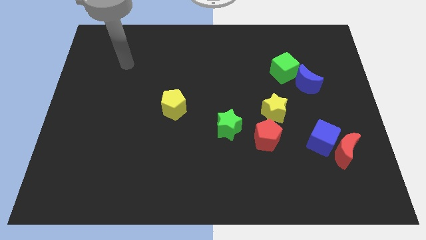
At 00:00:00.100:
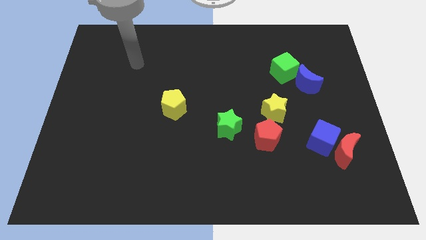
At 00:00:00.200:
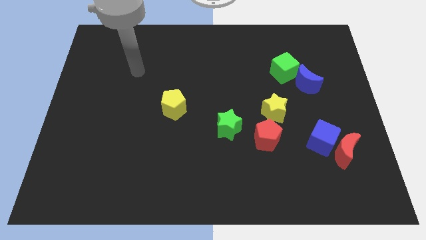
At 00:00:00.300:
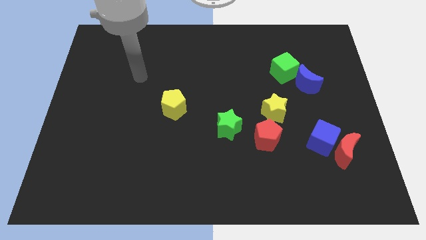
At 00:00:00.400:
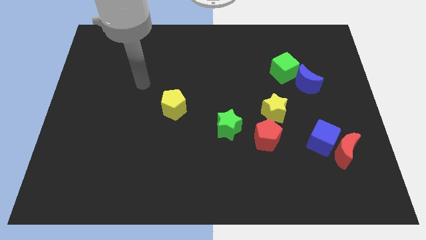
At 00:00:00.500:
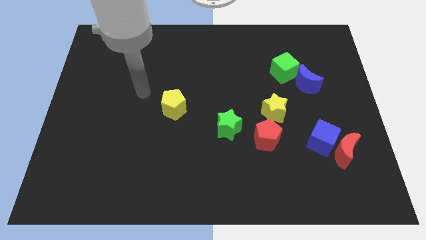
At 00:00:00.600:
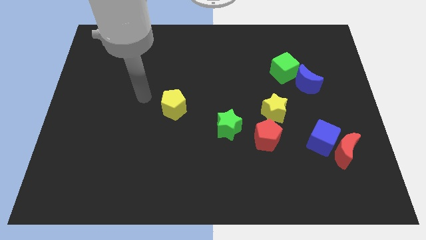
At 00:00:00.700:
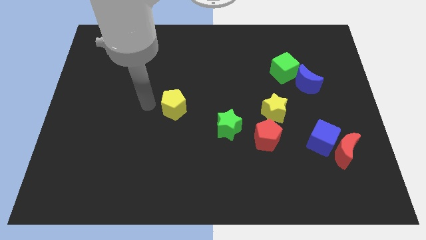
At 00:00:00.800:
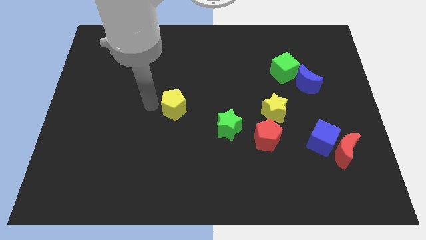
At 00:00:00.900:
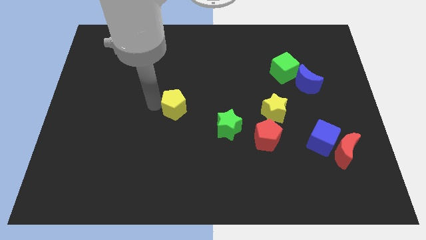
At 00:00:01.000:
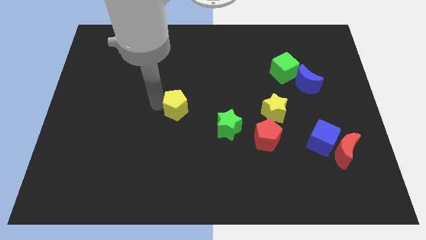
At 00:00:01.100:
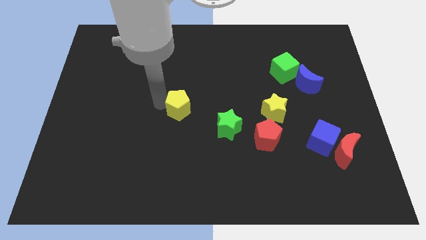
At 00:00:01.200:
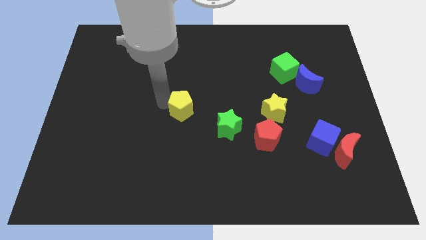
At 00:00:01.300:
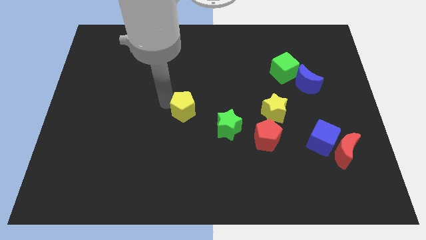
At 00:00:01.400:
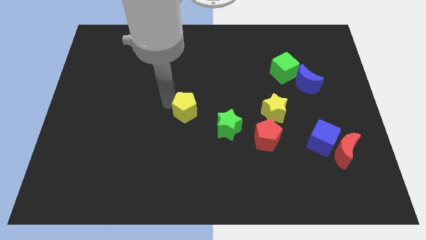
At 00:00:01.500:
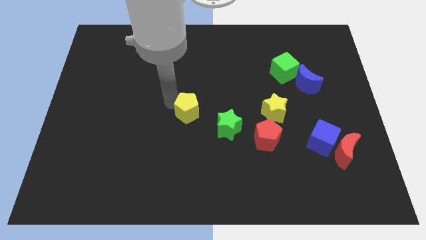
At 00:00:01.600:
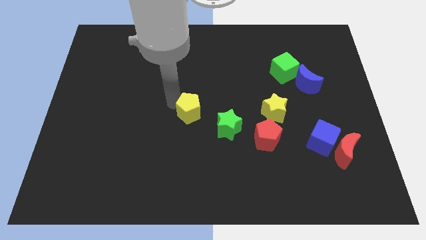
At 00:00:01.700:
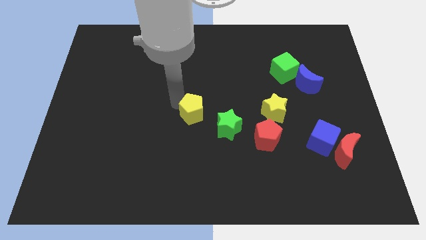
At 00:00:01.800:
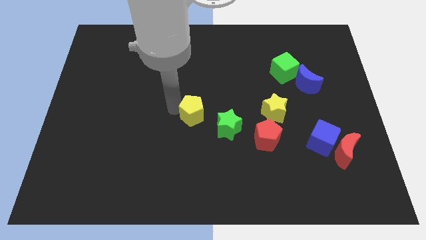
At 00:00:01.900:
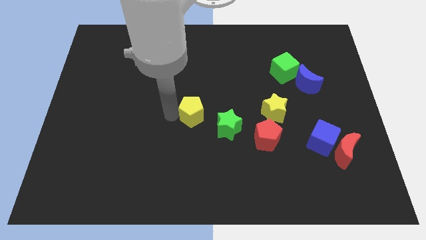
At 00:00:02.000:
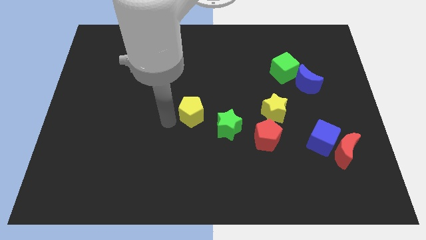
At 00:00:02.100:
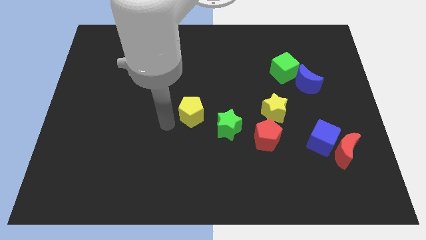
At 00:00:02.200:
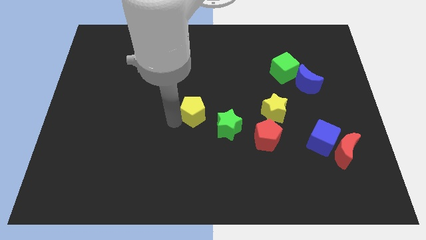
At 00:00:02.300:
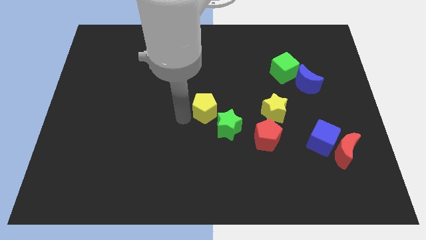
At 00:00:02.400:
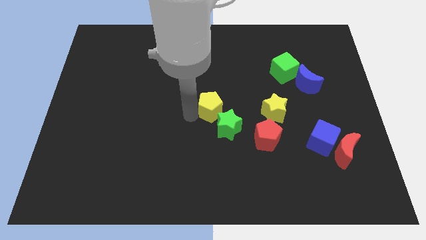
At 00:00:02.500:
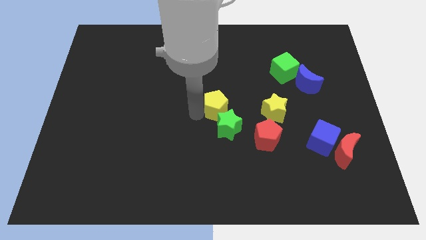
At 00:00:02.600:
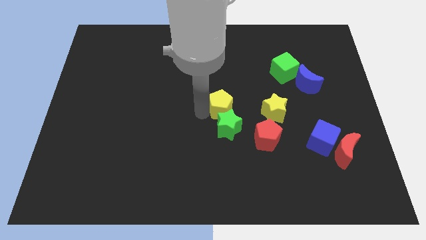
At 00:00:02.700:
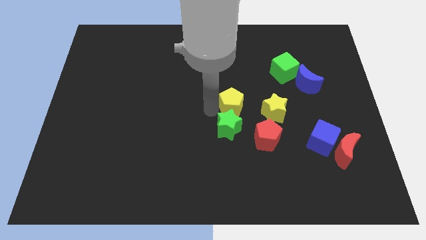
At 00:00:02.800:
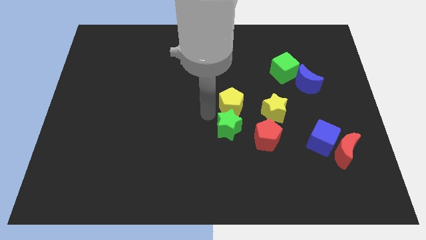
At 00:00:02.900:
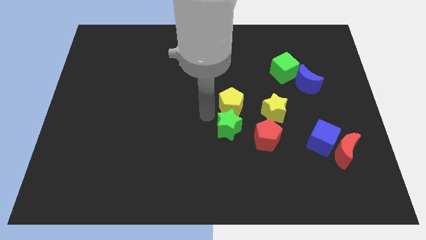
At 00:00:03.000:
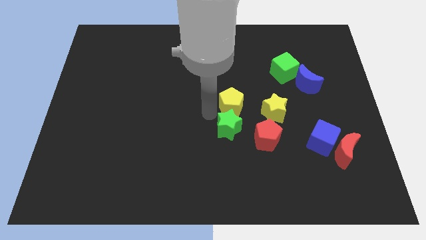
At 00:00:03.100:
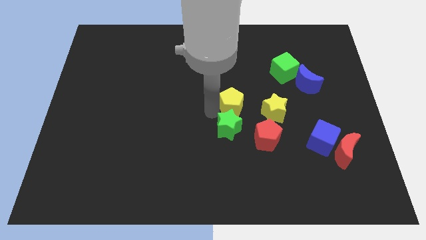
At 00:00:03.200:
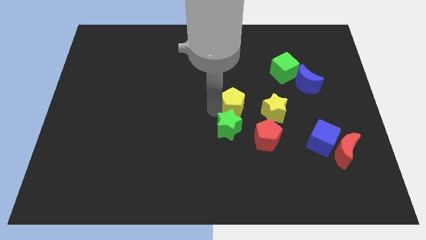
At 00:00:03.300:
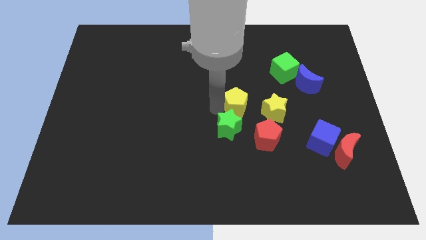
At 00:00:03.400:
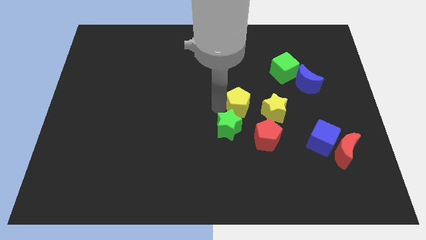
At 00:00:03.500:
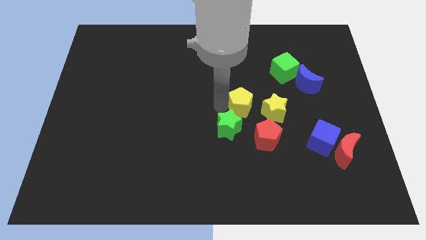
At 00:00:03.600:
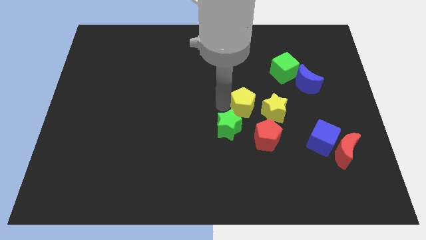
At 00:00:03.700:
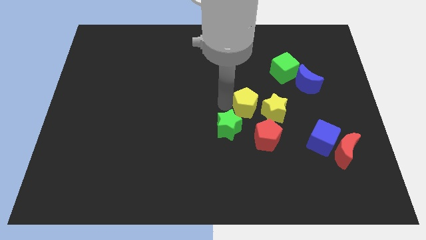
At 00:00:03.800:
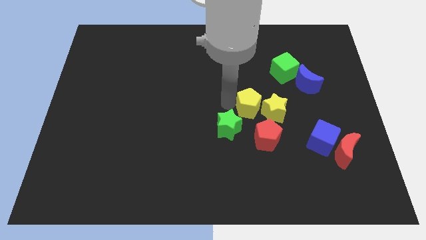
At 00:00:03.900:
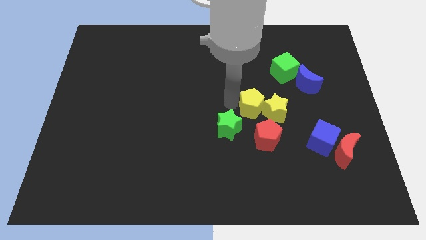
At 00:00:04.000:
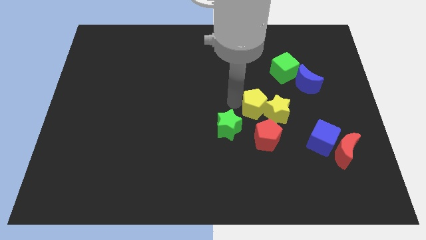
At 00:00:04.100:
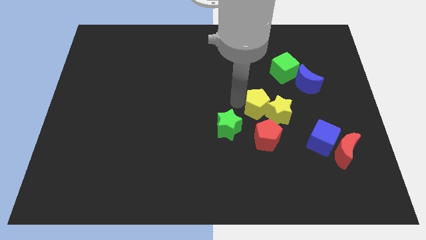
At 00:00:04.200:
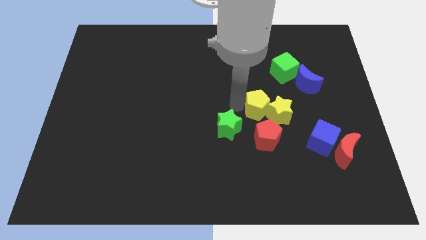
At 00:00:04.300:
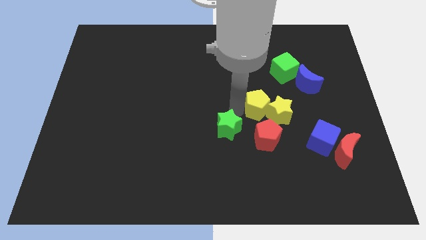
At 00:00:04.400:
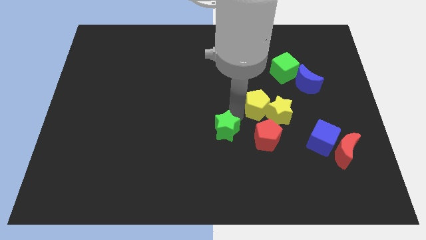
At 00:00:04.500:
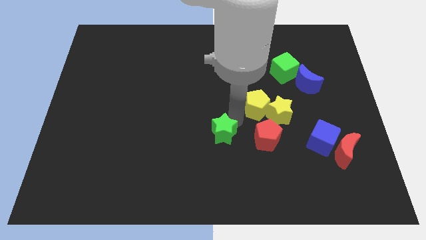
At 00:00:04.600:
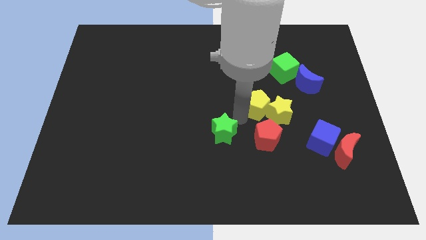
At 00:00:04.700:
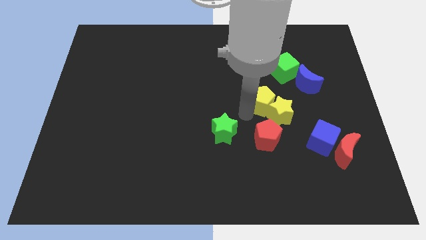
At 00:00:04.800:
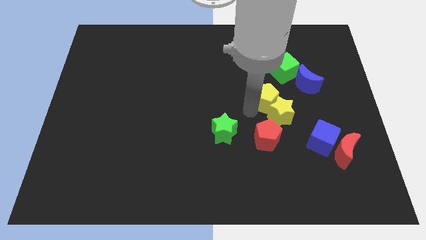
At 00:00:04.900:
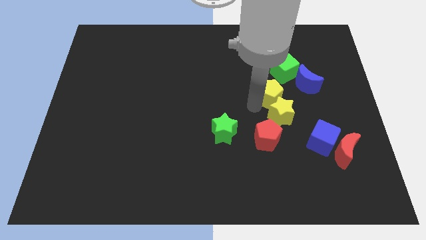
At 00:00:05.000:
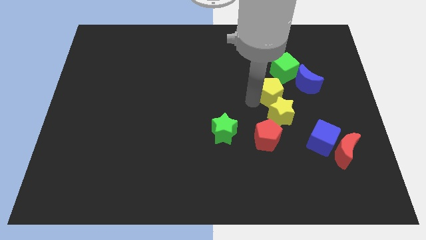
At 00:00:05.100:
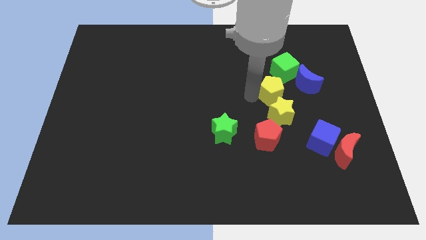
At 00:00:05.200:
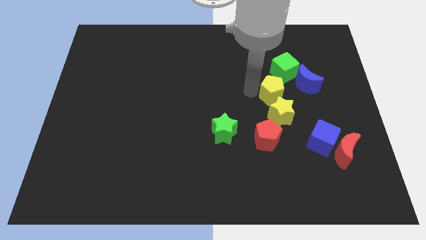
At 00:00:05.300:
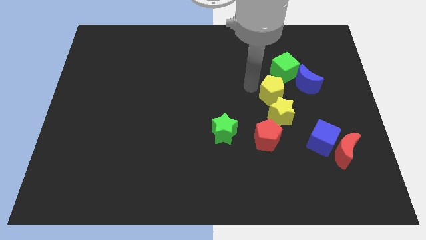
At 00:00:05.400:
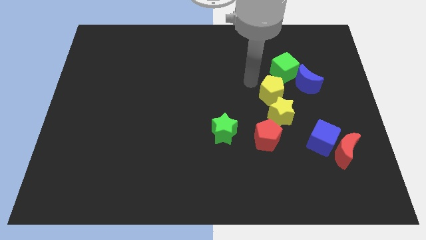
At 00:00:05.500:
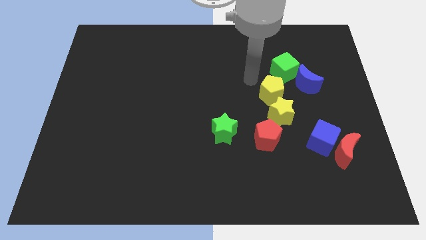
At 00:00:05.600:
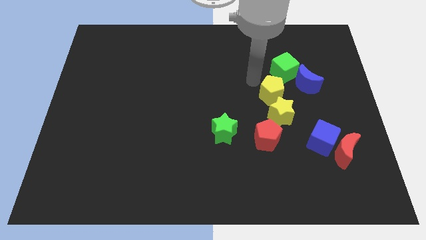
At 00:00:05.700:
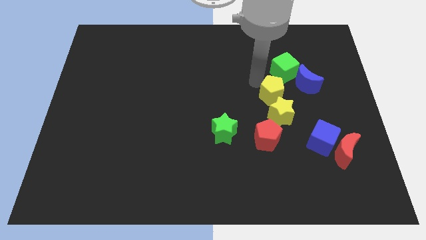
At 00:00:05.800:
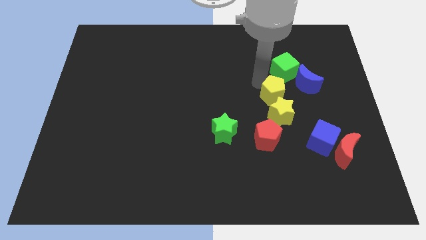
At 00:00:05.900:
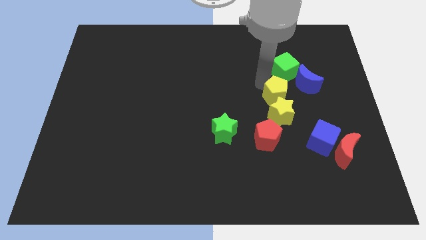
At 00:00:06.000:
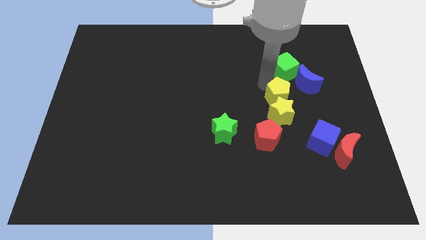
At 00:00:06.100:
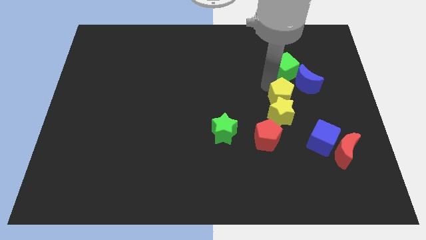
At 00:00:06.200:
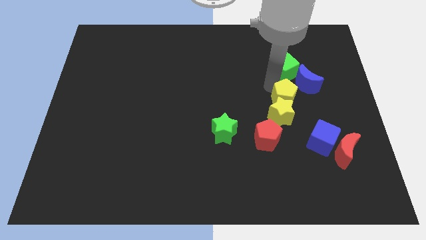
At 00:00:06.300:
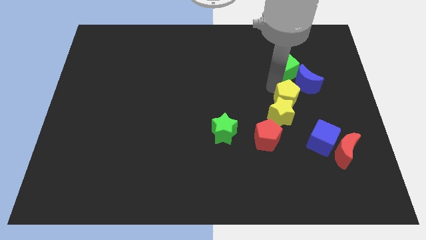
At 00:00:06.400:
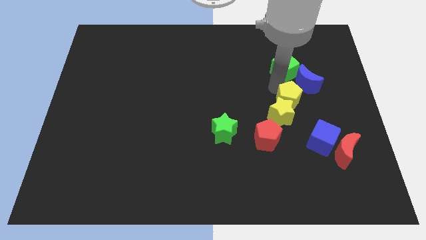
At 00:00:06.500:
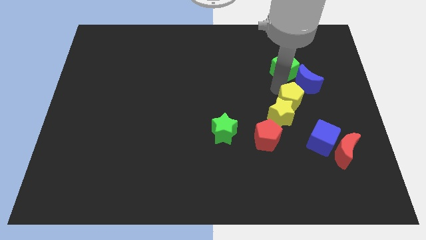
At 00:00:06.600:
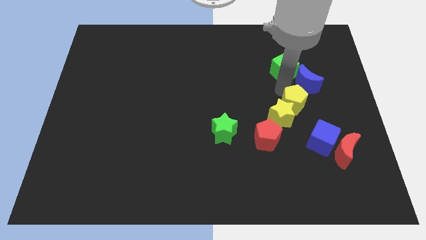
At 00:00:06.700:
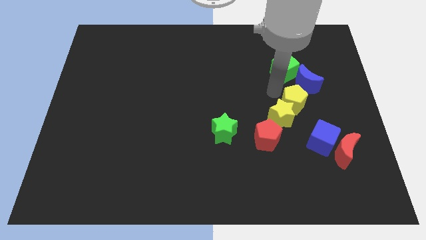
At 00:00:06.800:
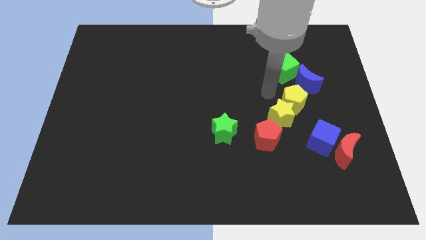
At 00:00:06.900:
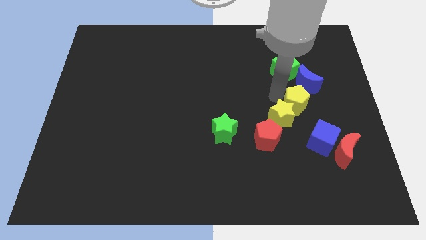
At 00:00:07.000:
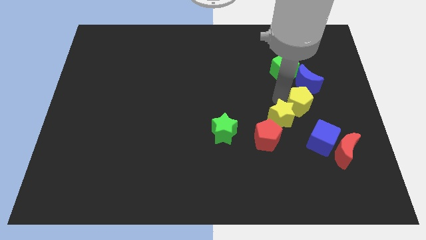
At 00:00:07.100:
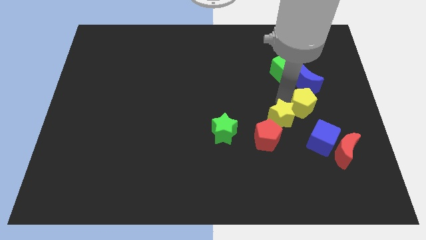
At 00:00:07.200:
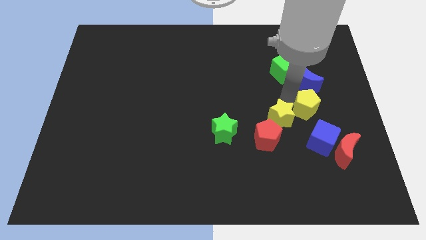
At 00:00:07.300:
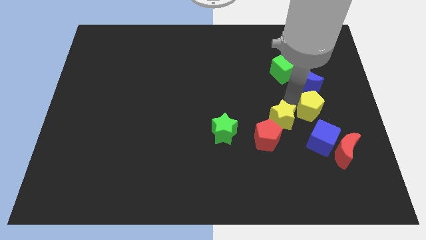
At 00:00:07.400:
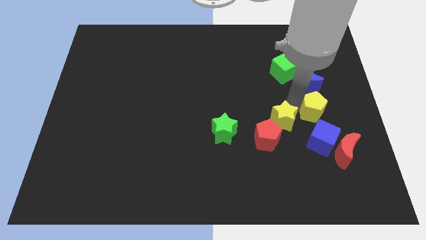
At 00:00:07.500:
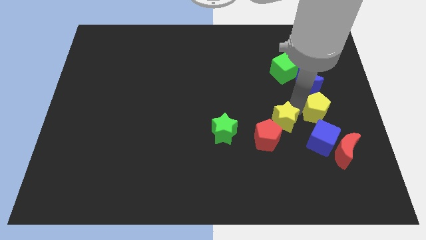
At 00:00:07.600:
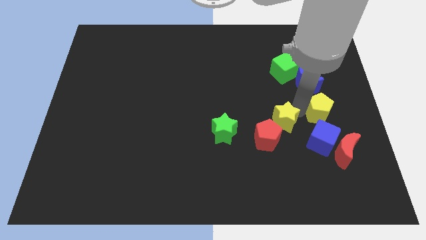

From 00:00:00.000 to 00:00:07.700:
move the yellow pentagon diagonally up and to the right of the blue cube
